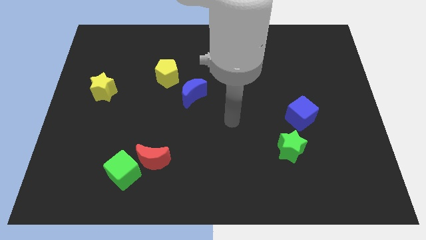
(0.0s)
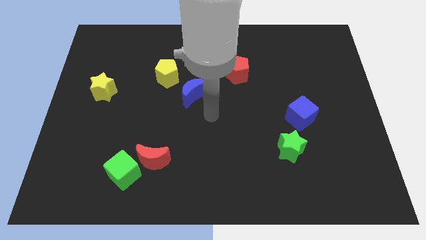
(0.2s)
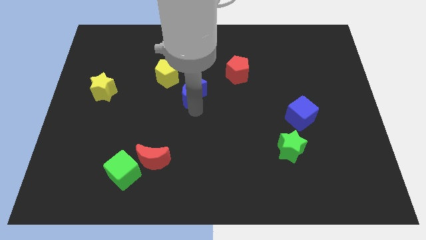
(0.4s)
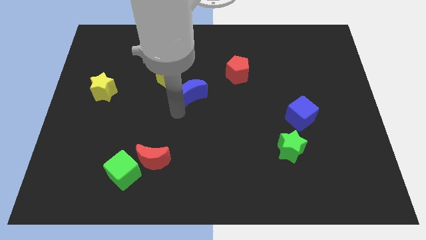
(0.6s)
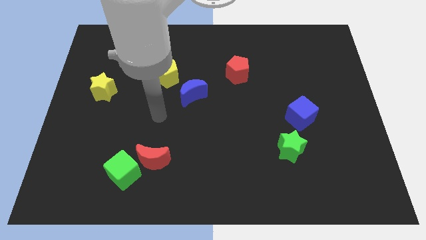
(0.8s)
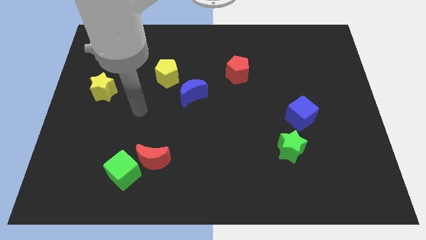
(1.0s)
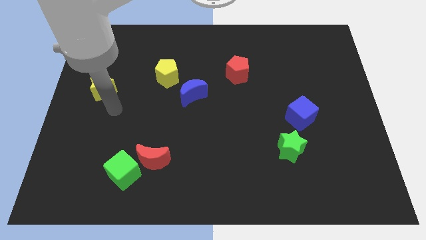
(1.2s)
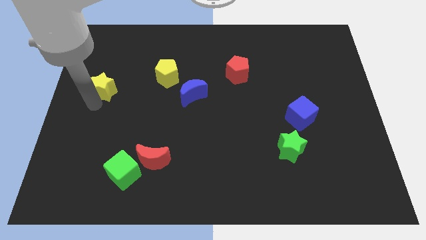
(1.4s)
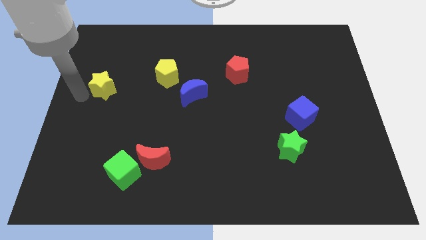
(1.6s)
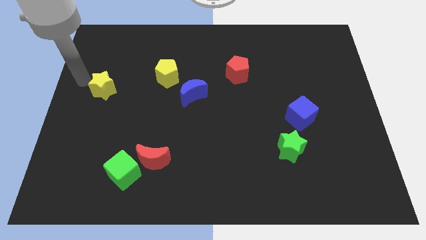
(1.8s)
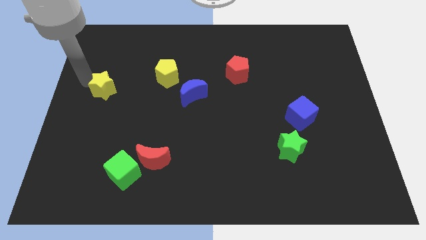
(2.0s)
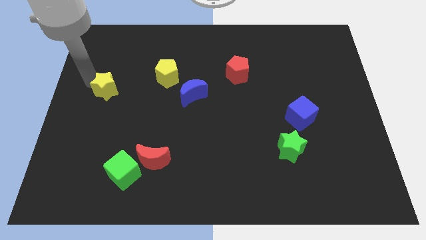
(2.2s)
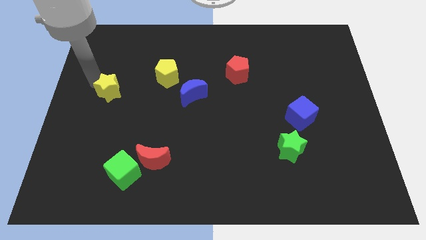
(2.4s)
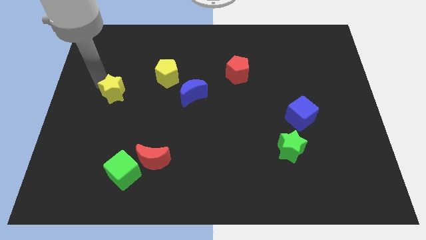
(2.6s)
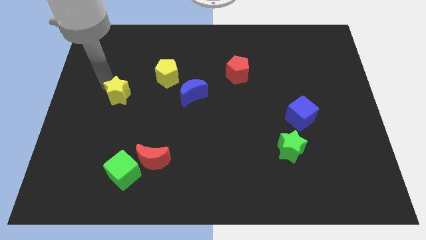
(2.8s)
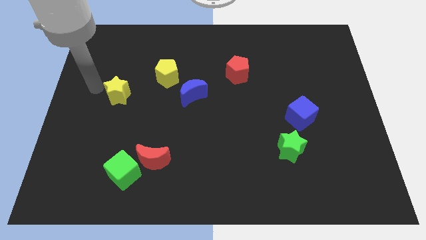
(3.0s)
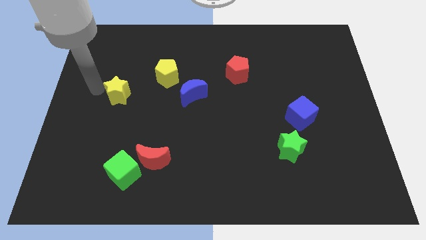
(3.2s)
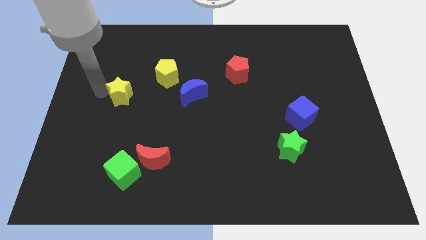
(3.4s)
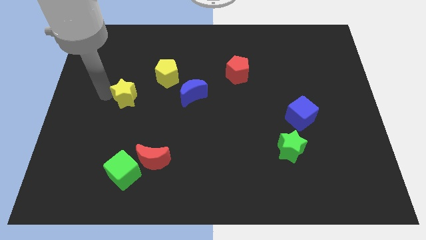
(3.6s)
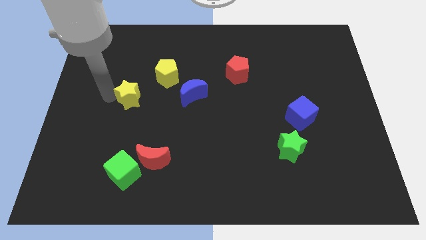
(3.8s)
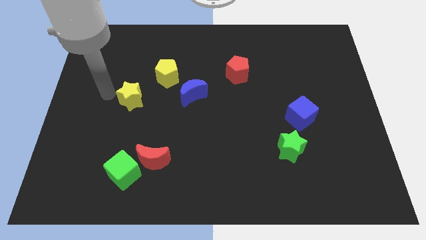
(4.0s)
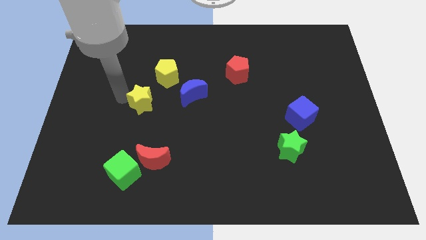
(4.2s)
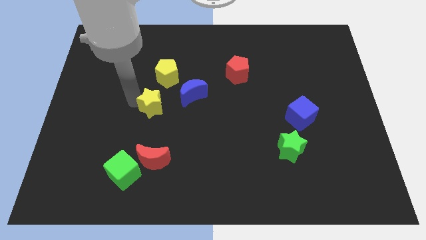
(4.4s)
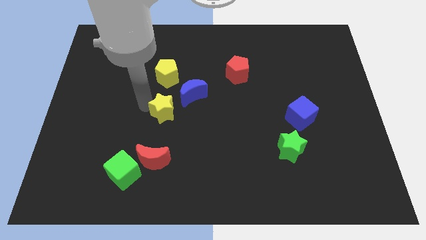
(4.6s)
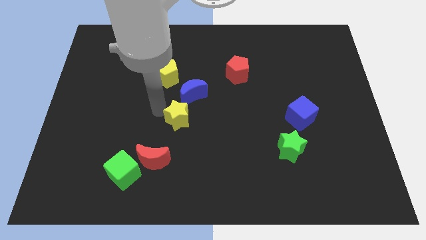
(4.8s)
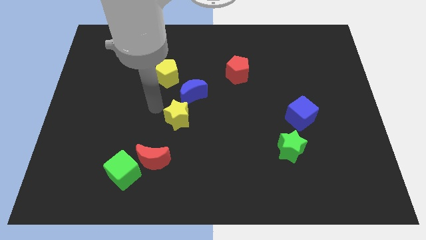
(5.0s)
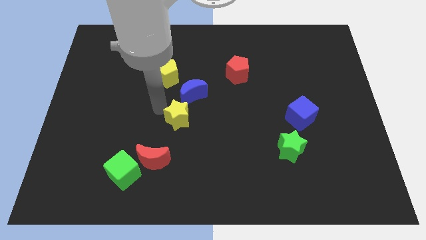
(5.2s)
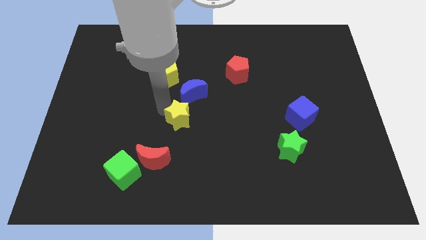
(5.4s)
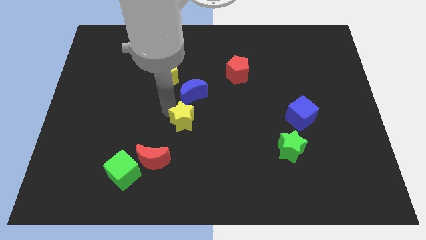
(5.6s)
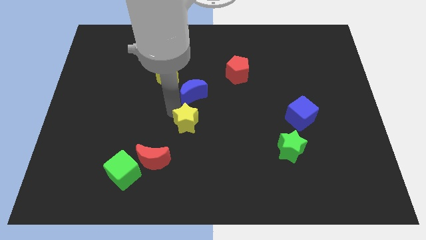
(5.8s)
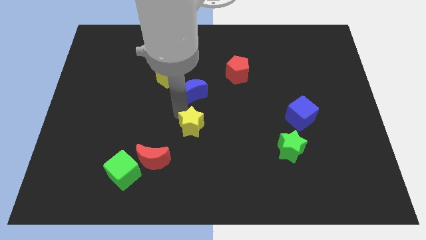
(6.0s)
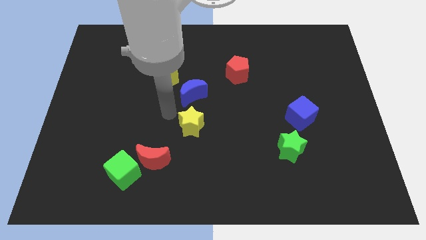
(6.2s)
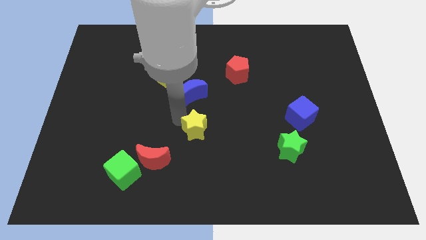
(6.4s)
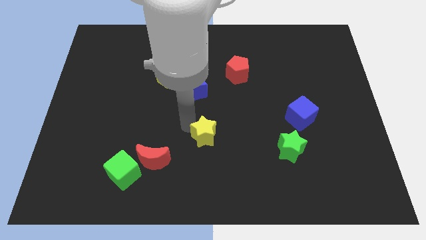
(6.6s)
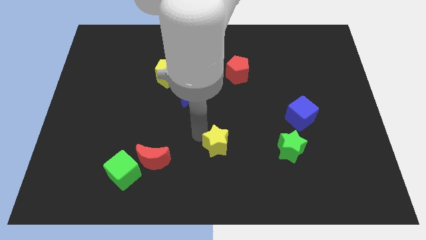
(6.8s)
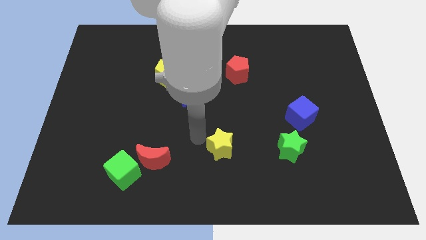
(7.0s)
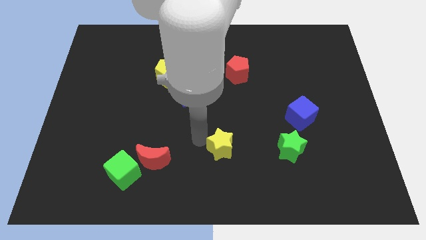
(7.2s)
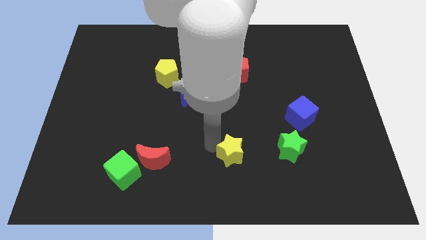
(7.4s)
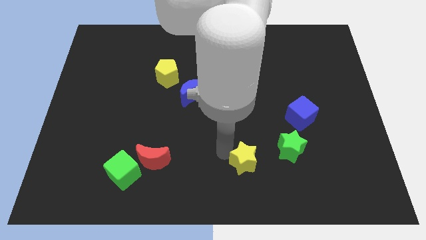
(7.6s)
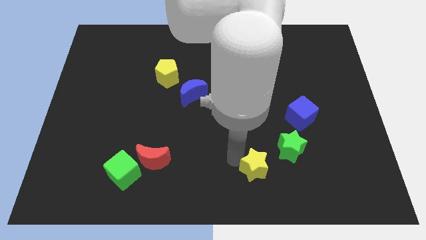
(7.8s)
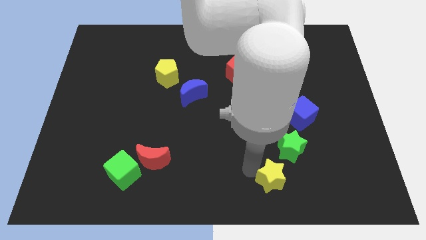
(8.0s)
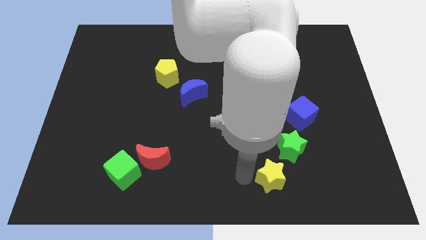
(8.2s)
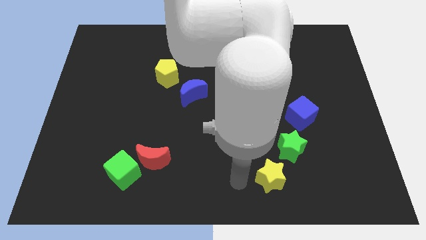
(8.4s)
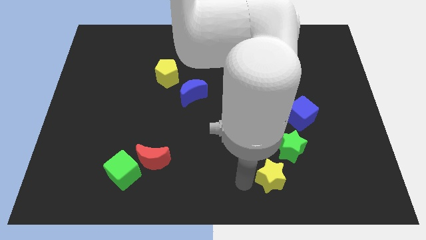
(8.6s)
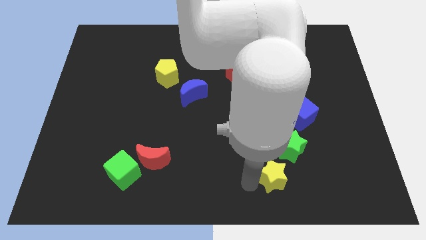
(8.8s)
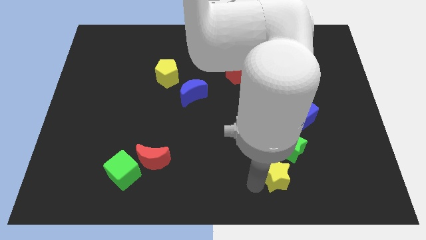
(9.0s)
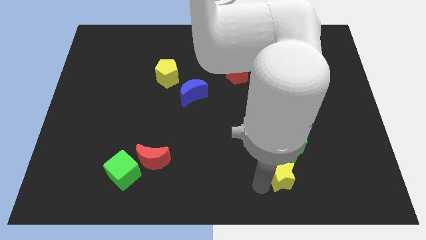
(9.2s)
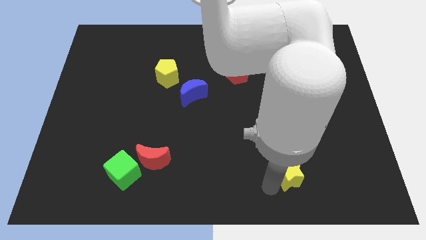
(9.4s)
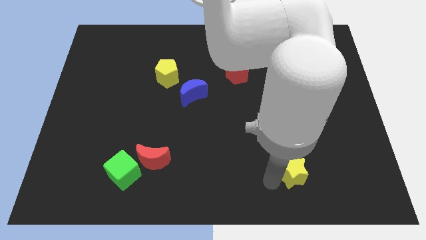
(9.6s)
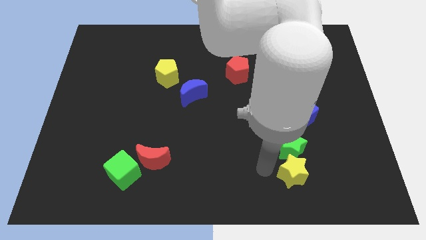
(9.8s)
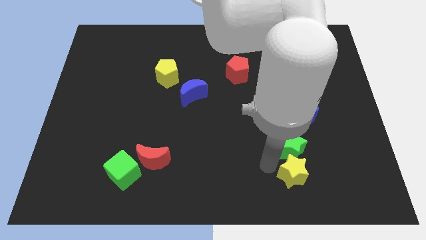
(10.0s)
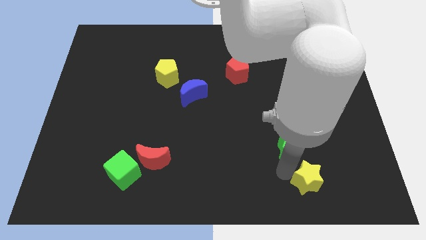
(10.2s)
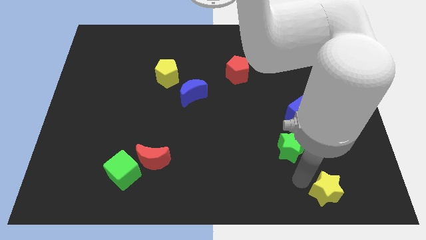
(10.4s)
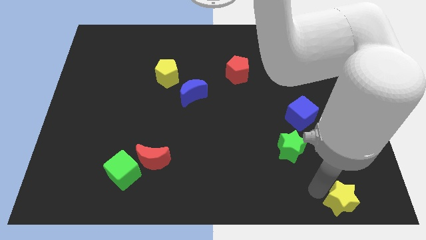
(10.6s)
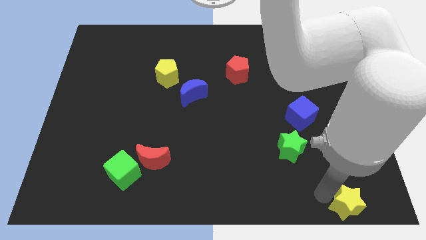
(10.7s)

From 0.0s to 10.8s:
slide the yellow star to the bottom right of the board

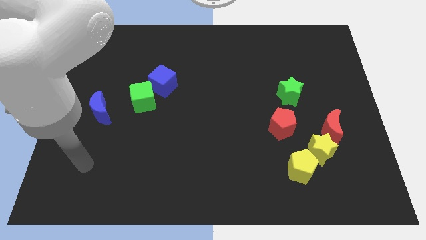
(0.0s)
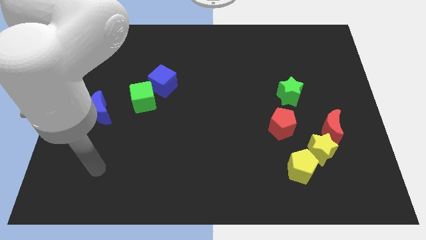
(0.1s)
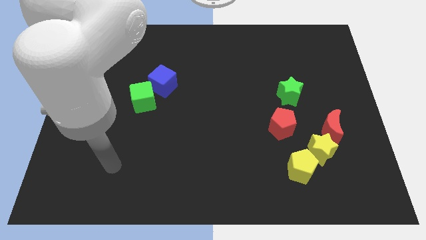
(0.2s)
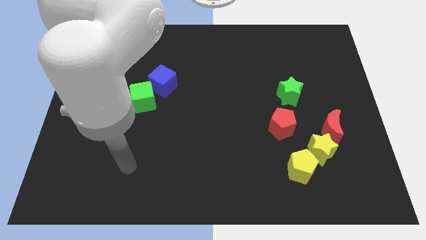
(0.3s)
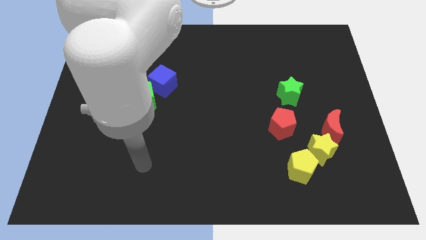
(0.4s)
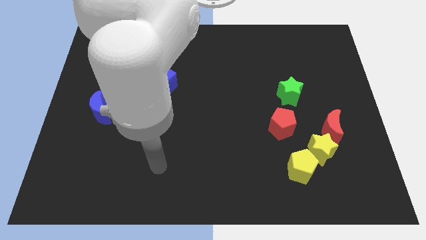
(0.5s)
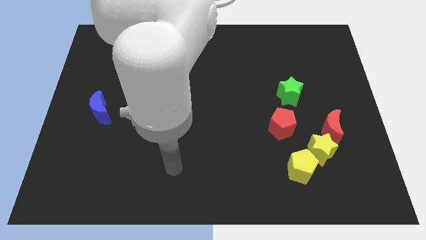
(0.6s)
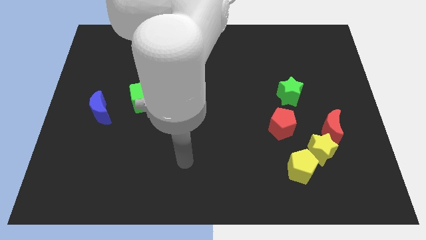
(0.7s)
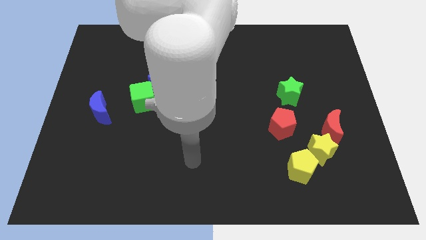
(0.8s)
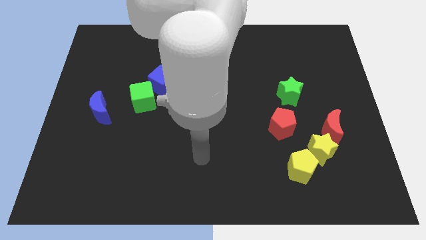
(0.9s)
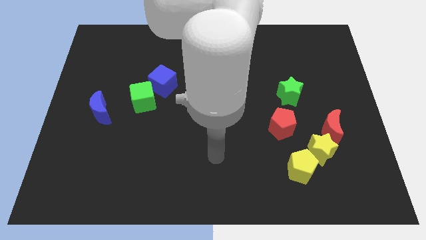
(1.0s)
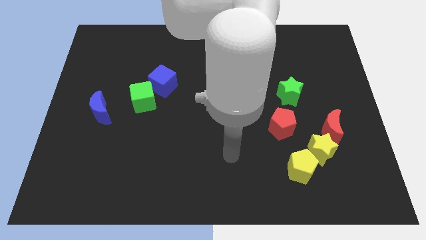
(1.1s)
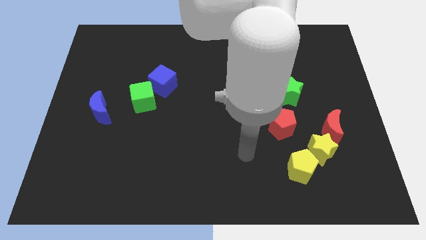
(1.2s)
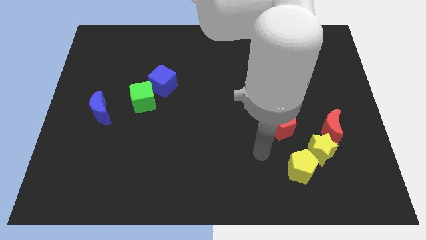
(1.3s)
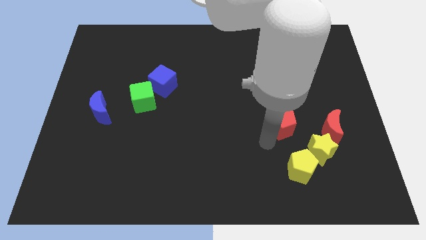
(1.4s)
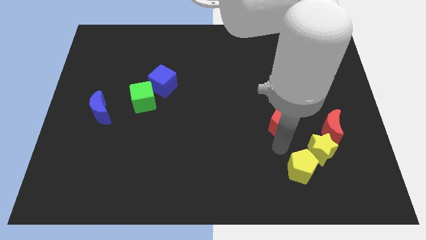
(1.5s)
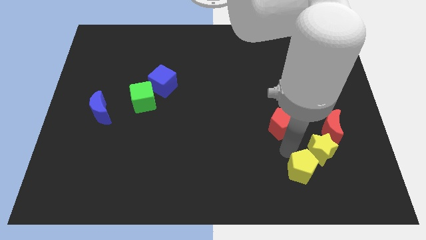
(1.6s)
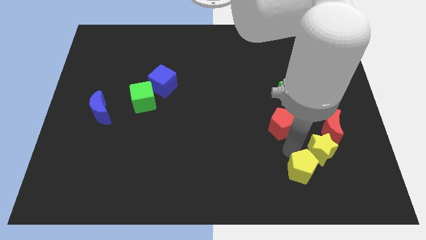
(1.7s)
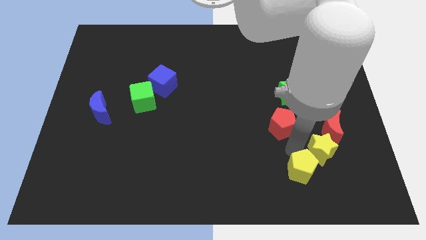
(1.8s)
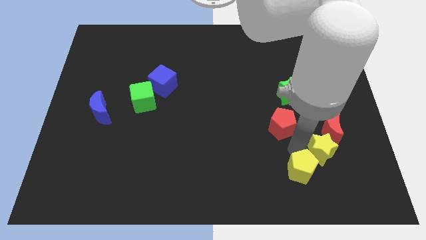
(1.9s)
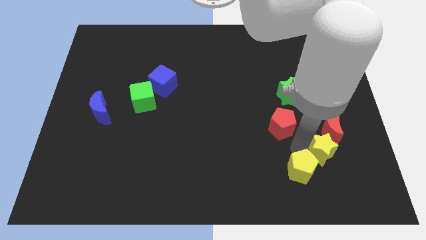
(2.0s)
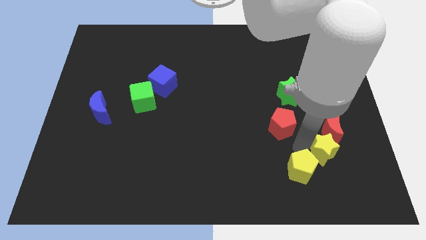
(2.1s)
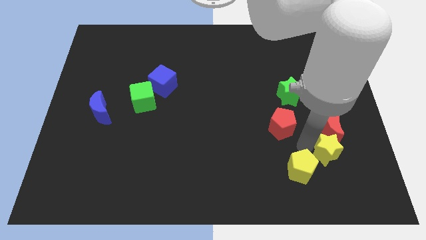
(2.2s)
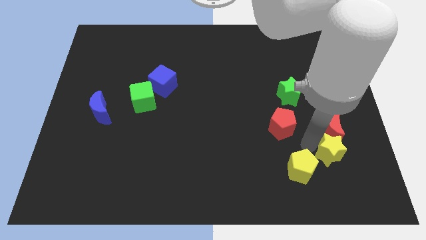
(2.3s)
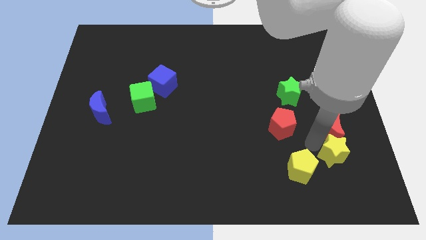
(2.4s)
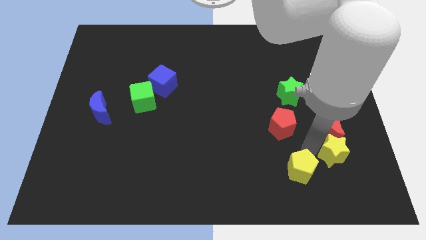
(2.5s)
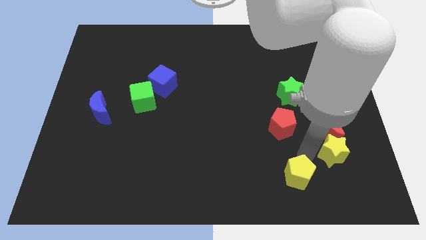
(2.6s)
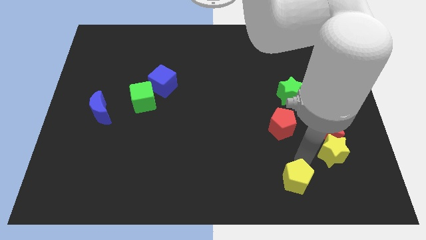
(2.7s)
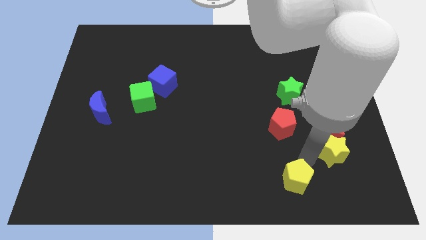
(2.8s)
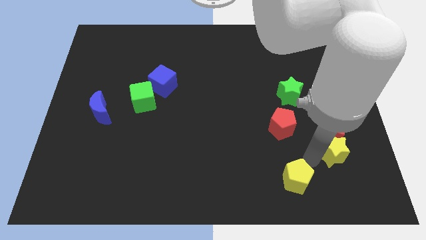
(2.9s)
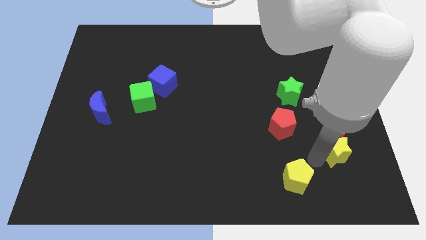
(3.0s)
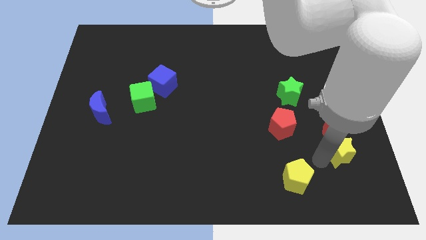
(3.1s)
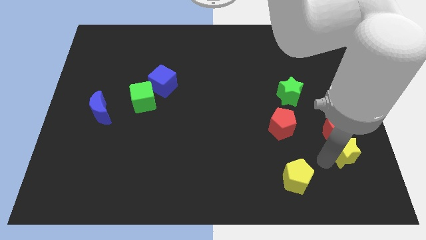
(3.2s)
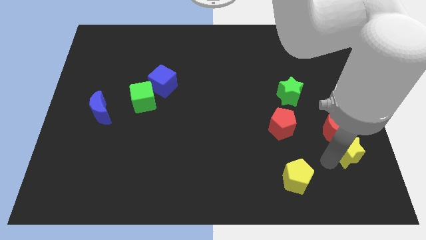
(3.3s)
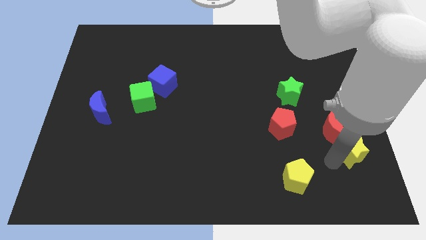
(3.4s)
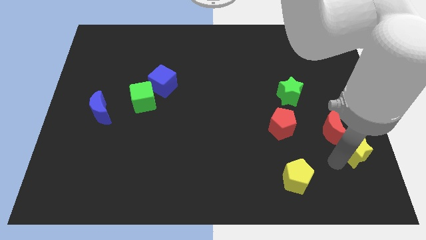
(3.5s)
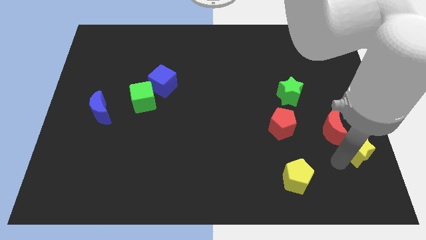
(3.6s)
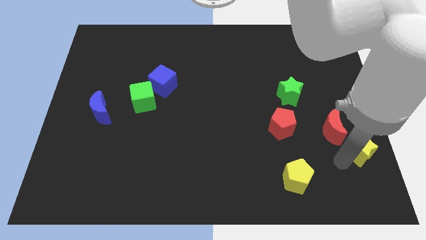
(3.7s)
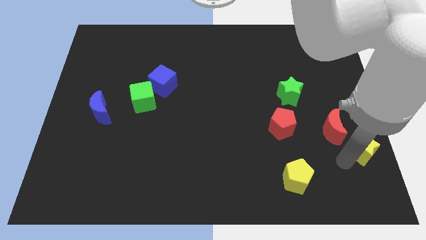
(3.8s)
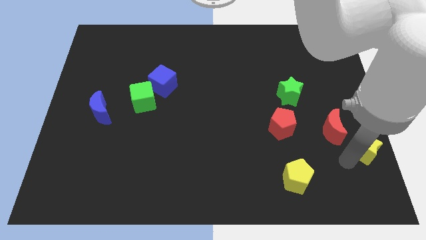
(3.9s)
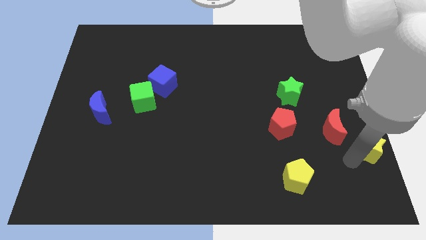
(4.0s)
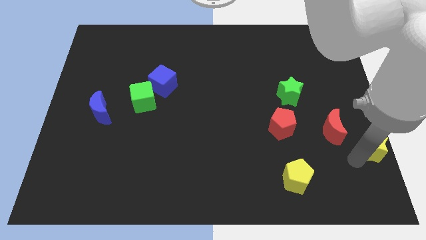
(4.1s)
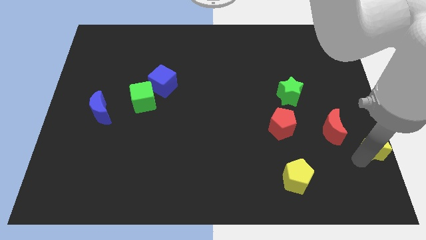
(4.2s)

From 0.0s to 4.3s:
push the yellow star to the right side
